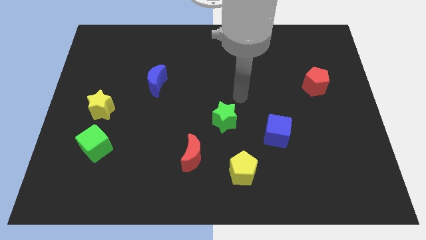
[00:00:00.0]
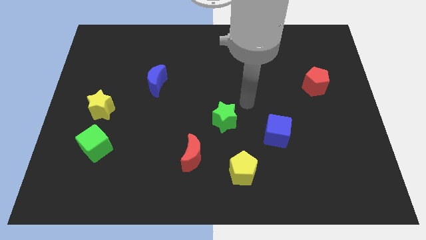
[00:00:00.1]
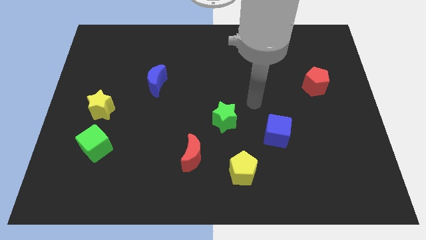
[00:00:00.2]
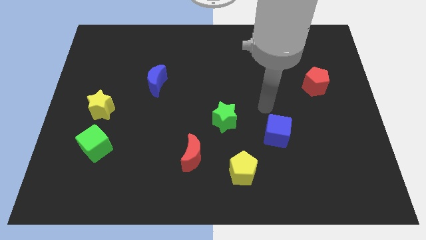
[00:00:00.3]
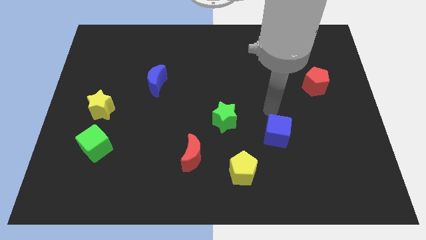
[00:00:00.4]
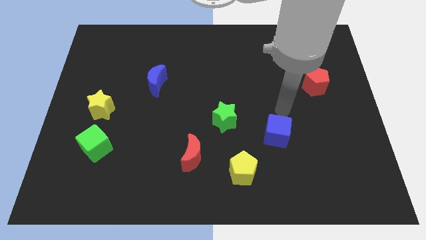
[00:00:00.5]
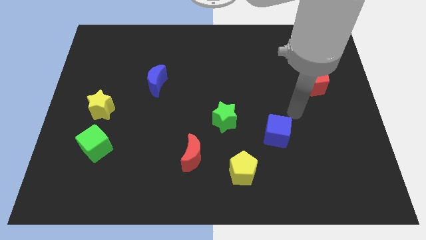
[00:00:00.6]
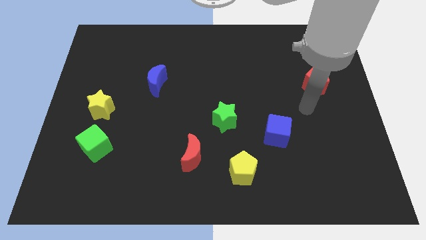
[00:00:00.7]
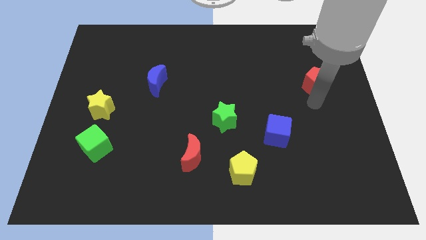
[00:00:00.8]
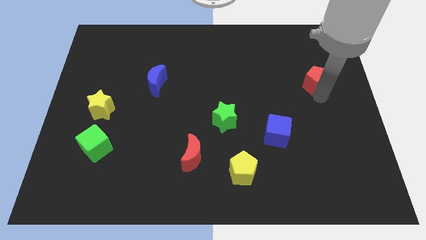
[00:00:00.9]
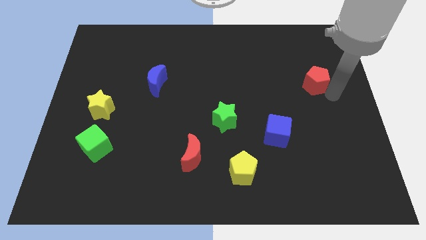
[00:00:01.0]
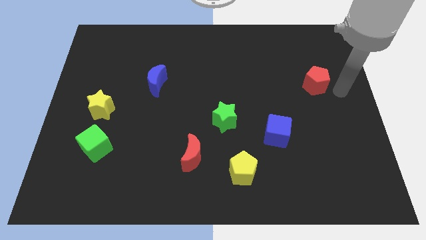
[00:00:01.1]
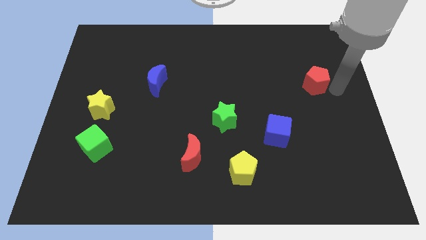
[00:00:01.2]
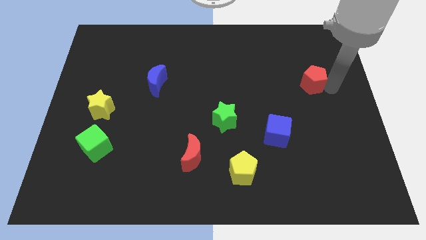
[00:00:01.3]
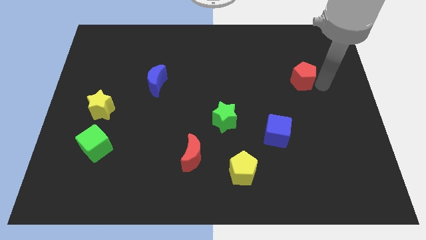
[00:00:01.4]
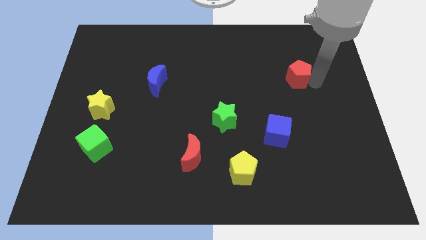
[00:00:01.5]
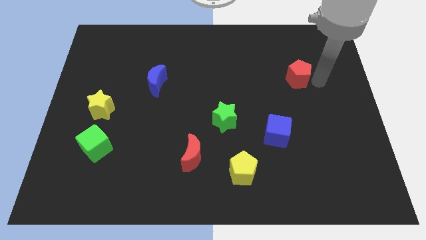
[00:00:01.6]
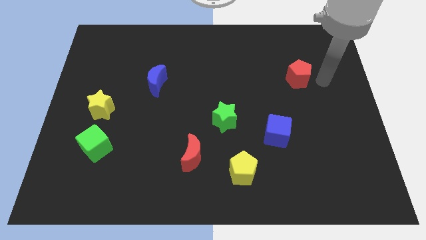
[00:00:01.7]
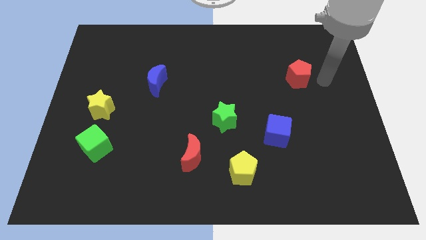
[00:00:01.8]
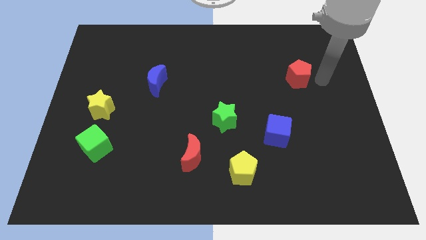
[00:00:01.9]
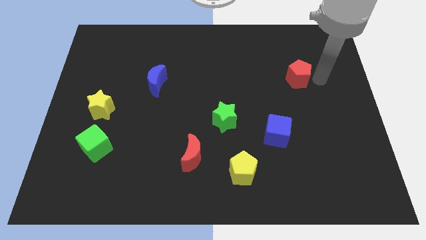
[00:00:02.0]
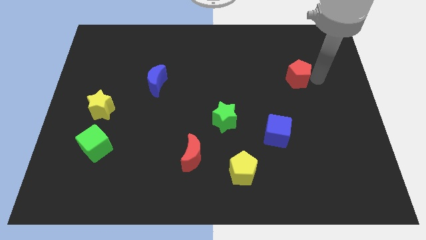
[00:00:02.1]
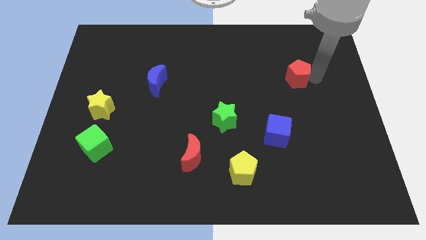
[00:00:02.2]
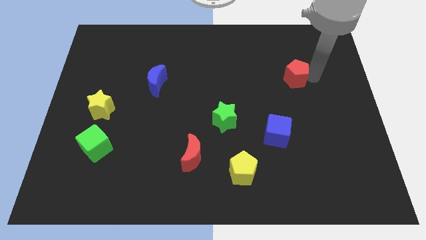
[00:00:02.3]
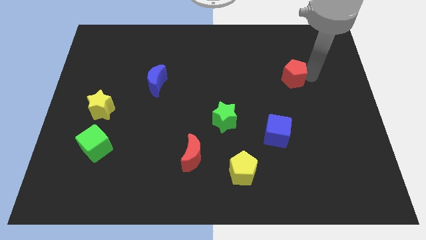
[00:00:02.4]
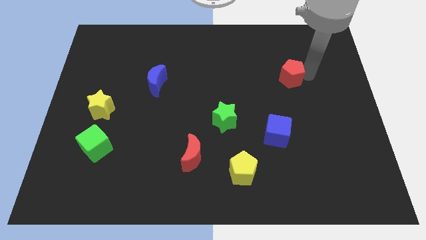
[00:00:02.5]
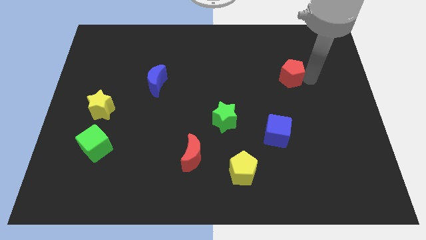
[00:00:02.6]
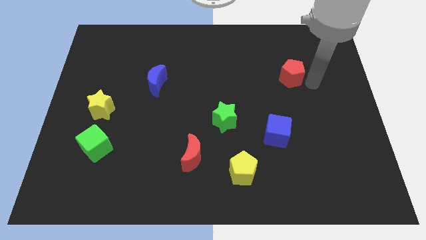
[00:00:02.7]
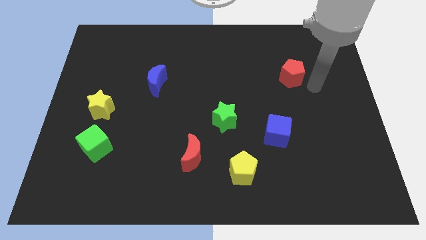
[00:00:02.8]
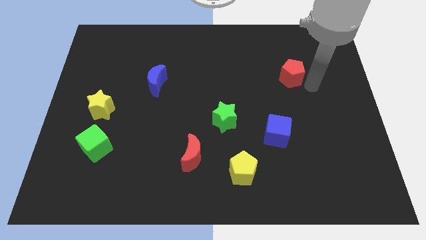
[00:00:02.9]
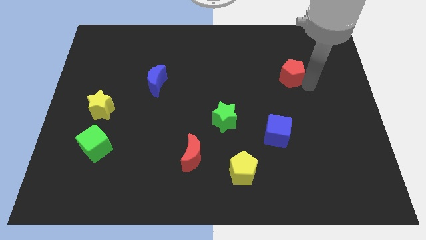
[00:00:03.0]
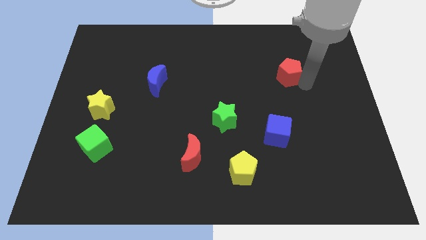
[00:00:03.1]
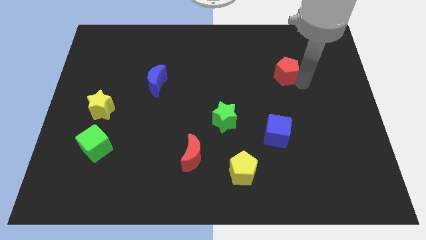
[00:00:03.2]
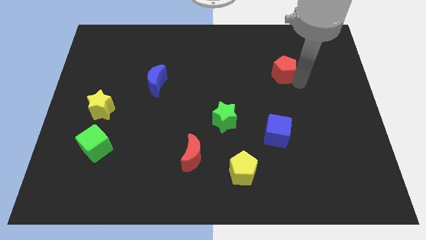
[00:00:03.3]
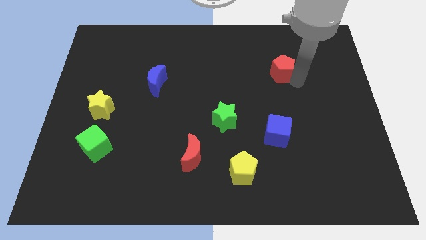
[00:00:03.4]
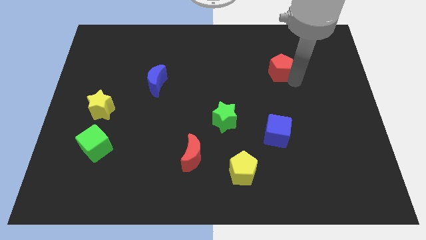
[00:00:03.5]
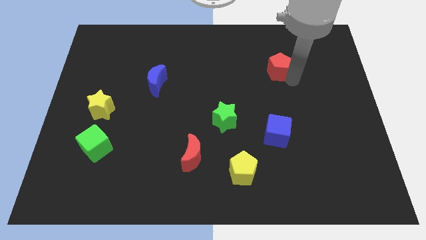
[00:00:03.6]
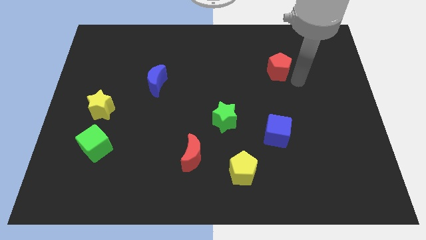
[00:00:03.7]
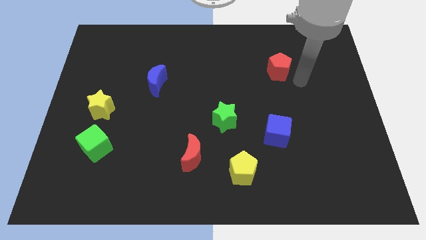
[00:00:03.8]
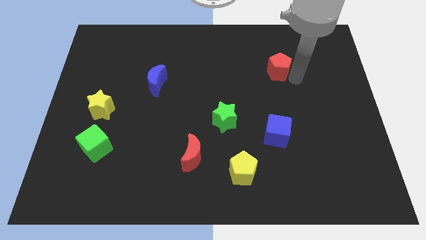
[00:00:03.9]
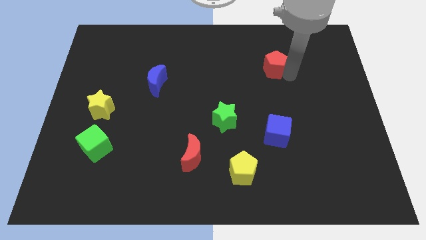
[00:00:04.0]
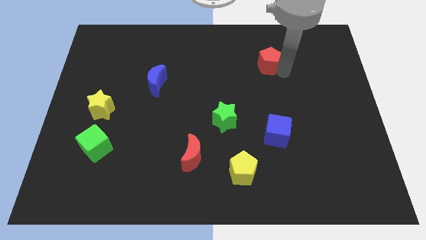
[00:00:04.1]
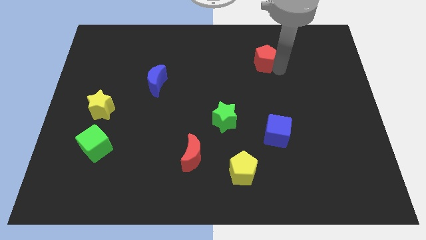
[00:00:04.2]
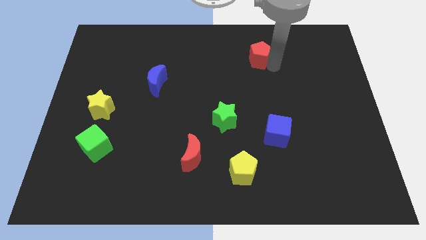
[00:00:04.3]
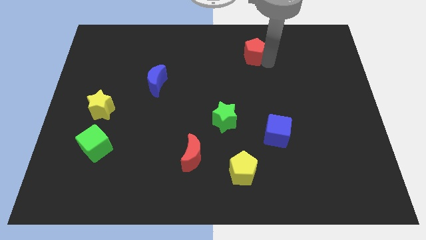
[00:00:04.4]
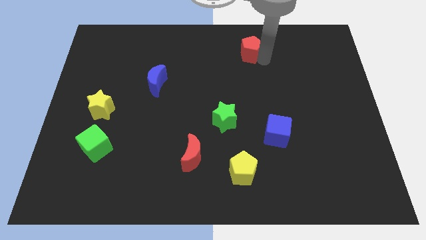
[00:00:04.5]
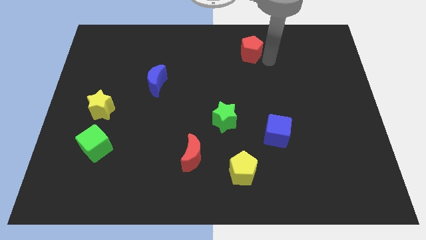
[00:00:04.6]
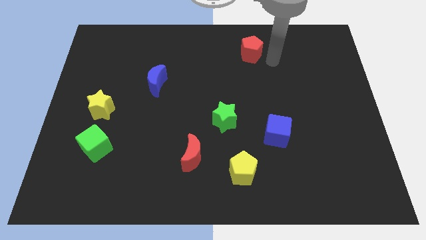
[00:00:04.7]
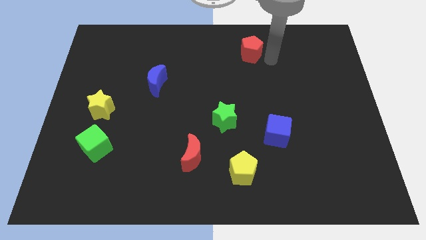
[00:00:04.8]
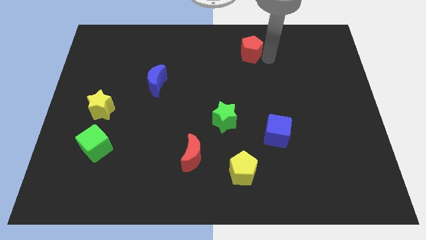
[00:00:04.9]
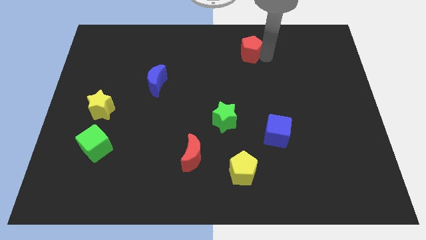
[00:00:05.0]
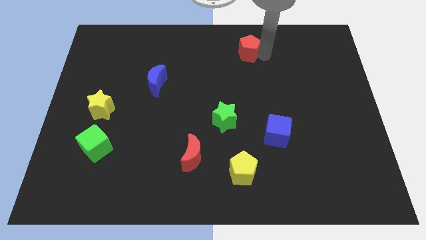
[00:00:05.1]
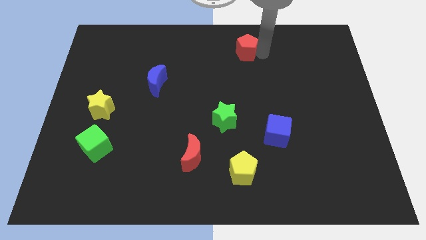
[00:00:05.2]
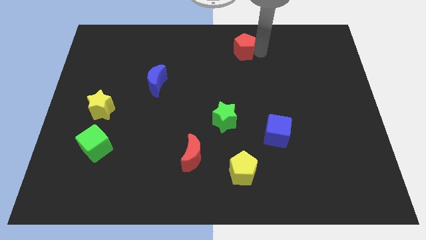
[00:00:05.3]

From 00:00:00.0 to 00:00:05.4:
put the red pentagon to the top

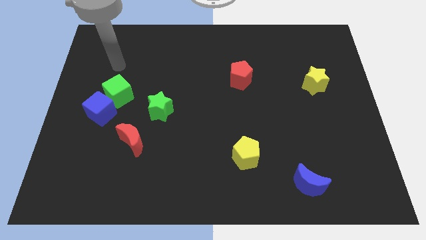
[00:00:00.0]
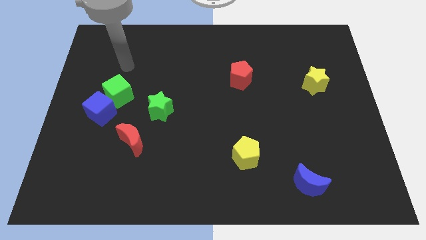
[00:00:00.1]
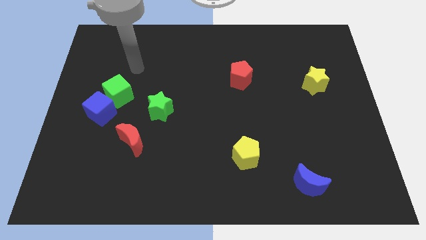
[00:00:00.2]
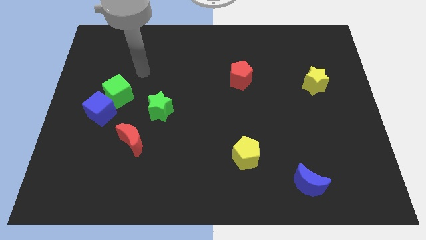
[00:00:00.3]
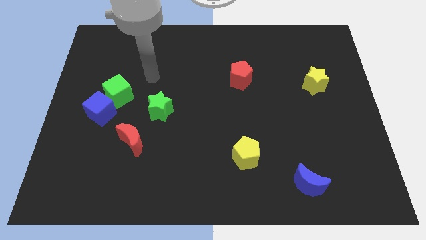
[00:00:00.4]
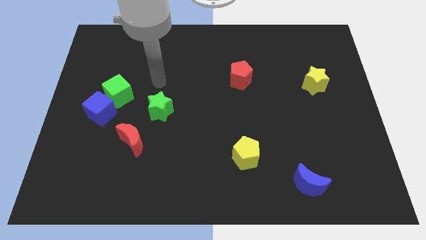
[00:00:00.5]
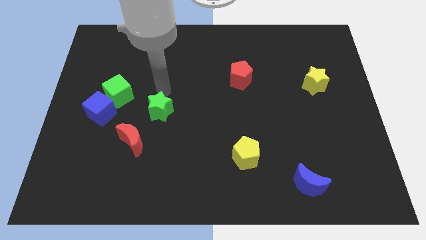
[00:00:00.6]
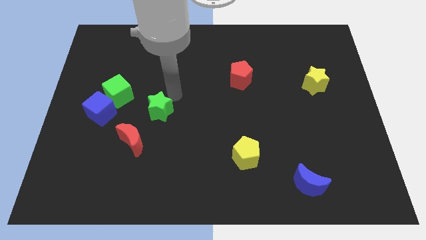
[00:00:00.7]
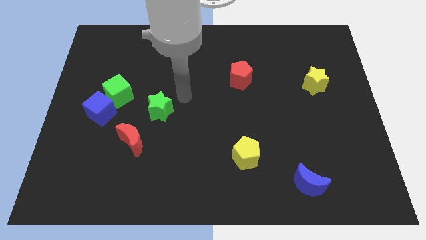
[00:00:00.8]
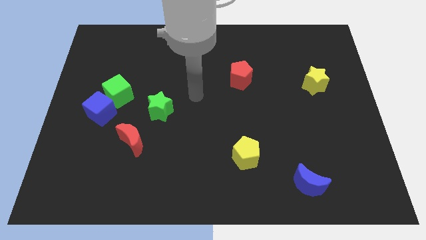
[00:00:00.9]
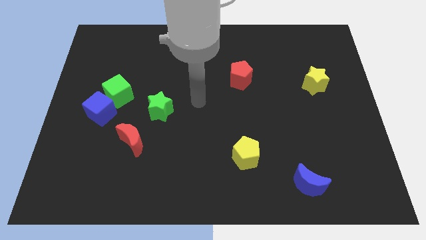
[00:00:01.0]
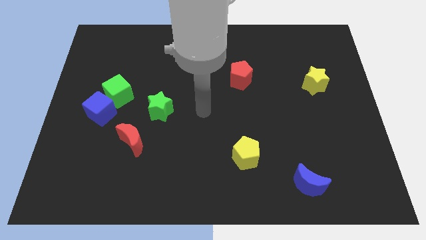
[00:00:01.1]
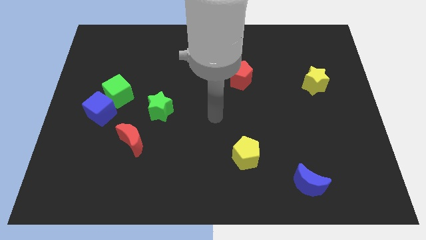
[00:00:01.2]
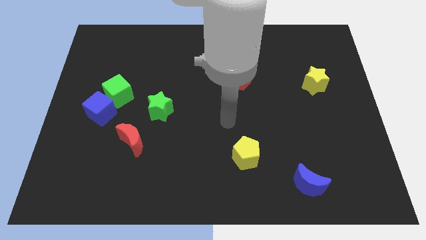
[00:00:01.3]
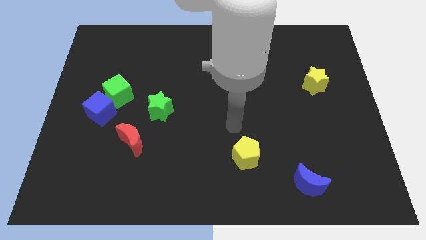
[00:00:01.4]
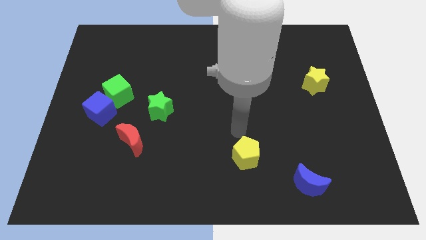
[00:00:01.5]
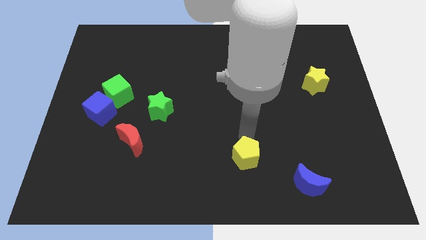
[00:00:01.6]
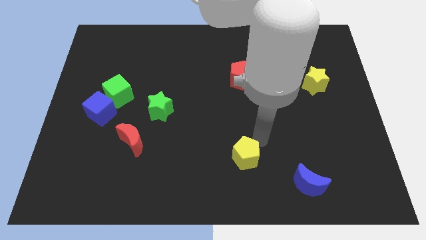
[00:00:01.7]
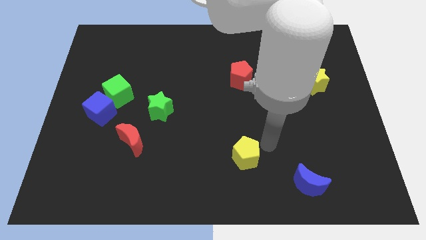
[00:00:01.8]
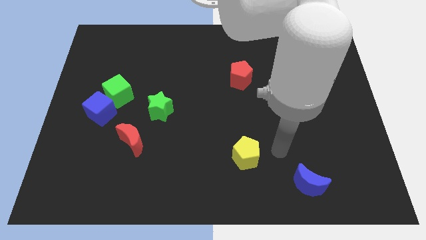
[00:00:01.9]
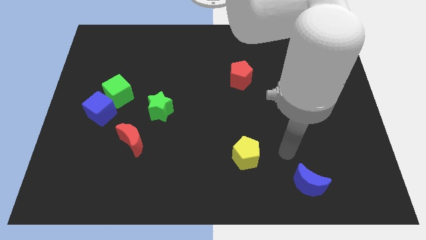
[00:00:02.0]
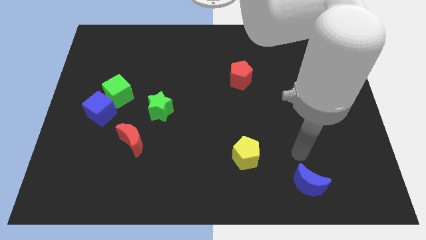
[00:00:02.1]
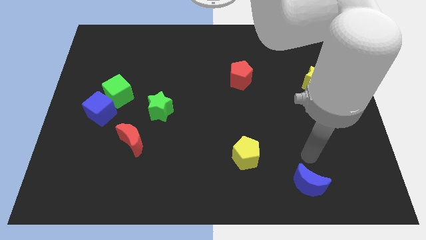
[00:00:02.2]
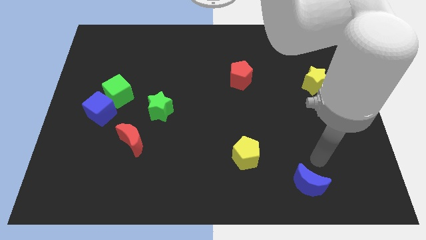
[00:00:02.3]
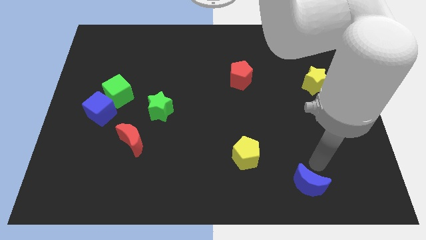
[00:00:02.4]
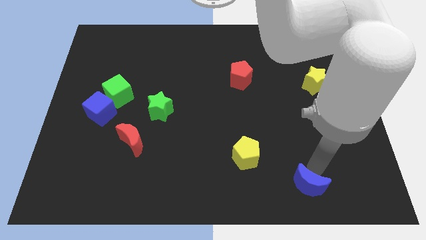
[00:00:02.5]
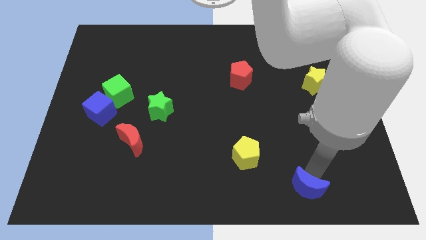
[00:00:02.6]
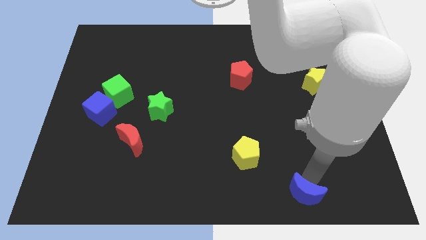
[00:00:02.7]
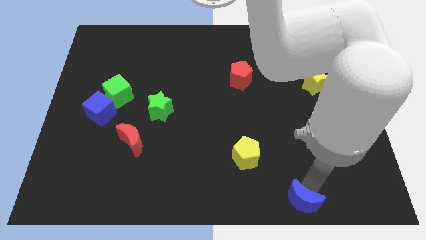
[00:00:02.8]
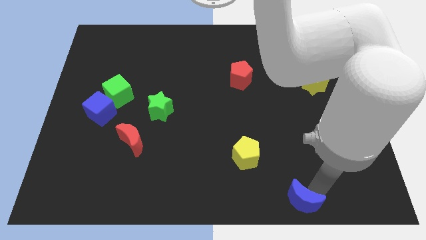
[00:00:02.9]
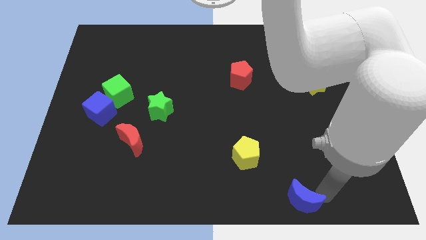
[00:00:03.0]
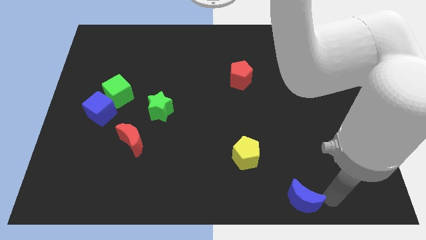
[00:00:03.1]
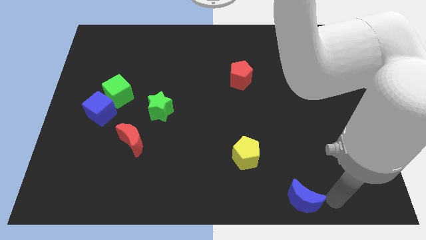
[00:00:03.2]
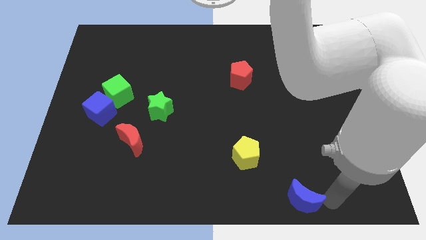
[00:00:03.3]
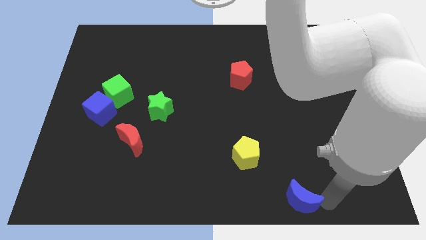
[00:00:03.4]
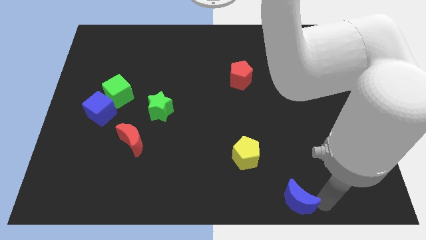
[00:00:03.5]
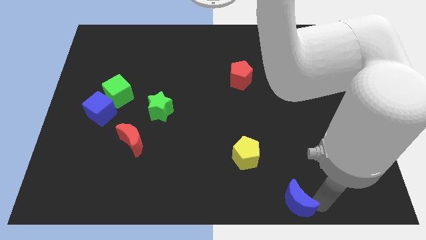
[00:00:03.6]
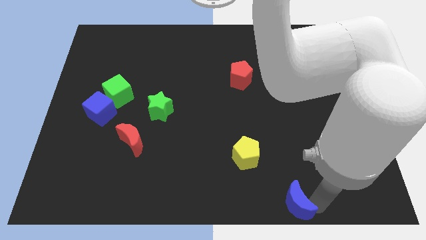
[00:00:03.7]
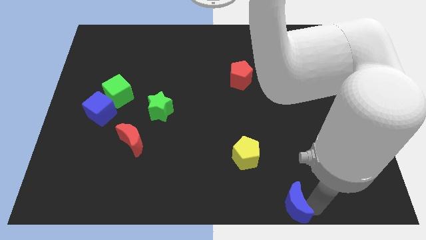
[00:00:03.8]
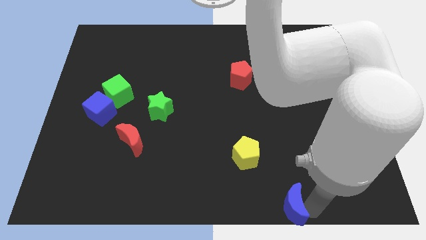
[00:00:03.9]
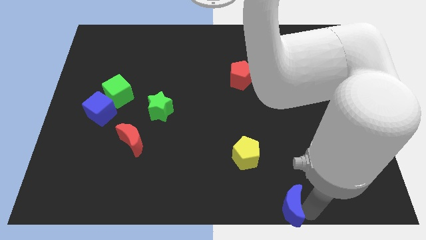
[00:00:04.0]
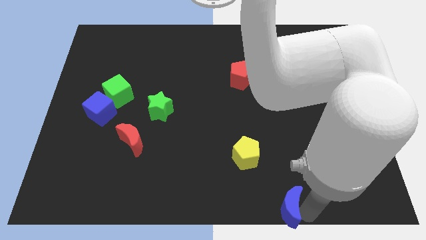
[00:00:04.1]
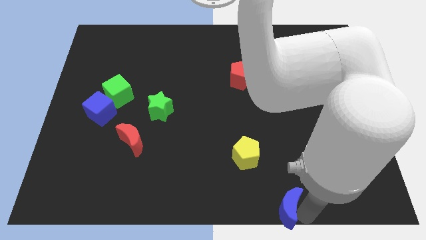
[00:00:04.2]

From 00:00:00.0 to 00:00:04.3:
slide the blue moon to the bottom side
